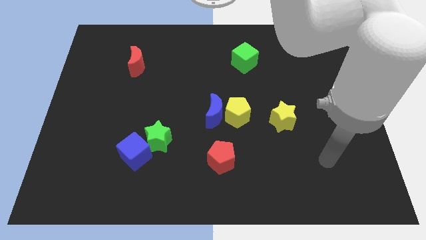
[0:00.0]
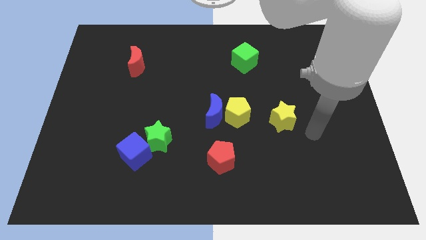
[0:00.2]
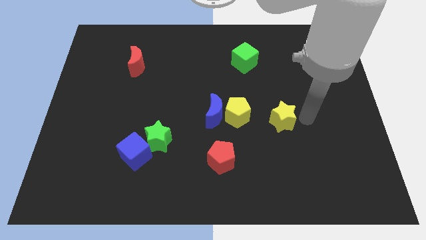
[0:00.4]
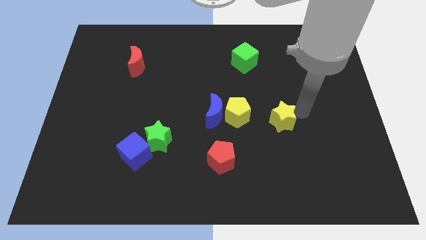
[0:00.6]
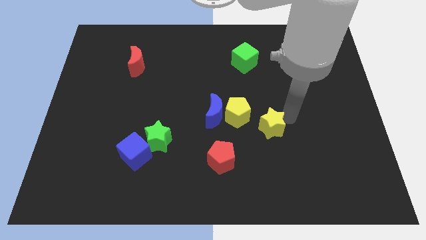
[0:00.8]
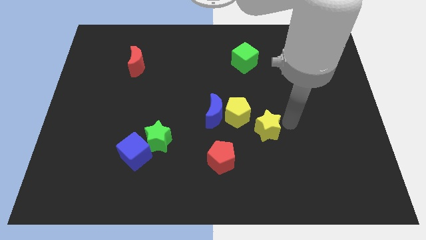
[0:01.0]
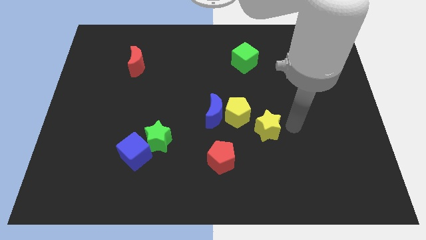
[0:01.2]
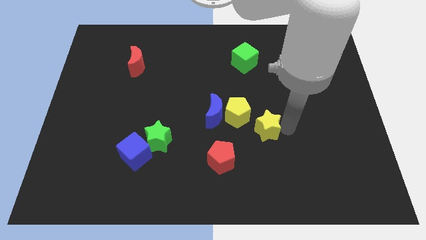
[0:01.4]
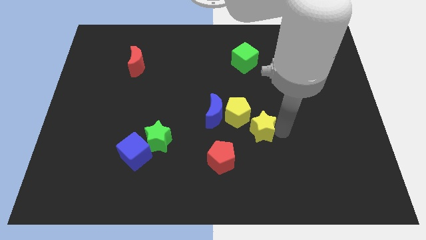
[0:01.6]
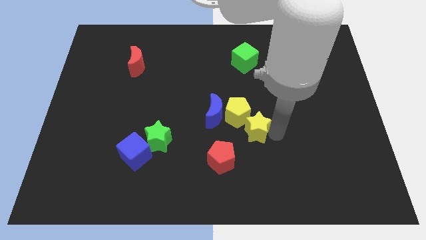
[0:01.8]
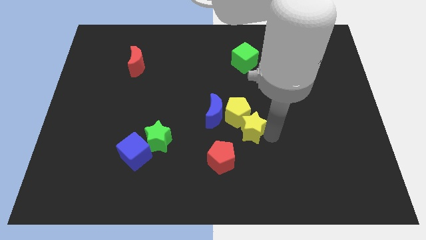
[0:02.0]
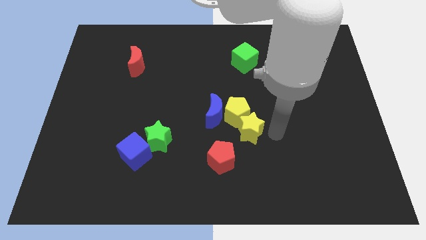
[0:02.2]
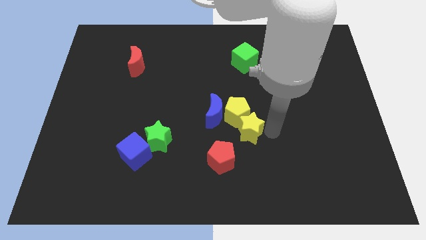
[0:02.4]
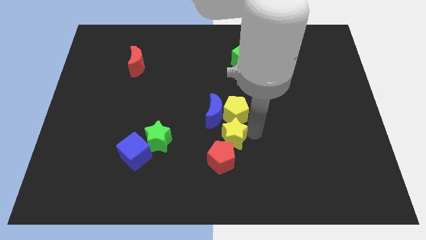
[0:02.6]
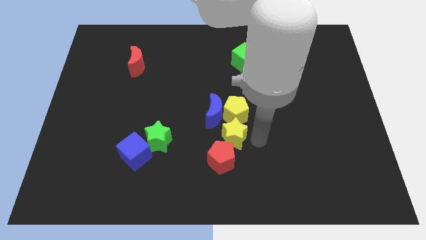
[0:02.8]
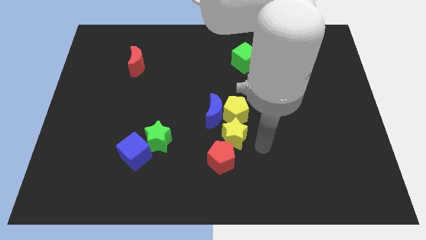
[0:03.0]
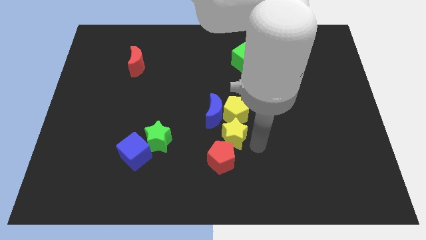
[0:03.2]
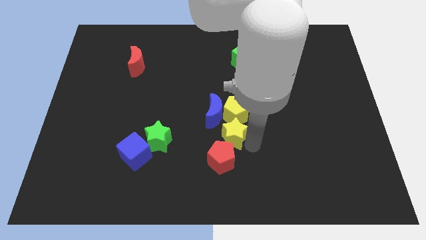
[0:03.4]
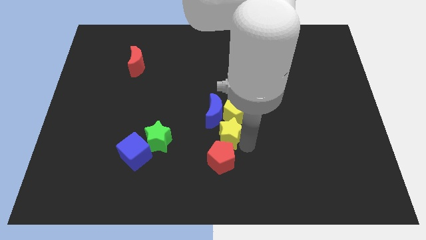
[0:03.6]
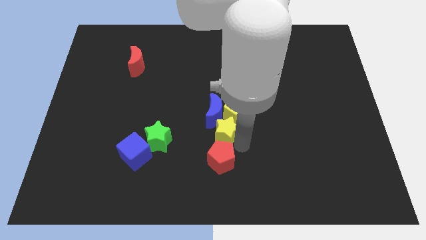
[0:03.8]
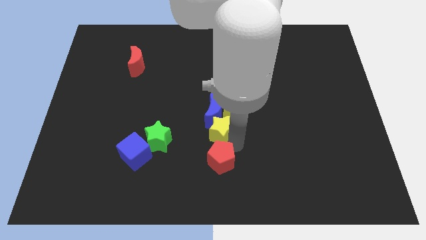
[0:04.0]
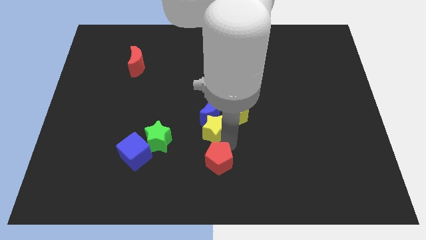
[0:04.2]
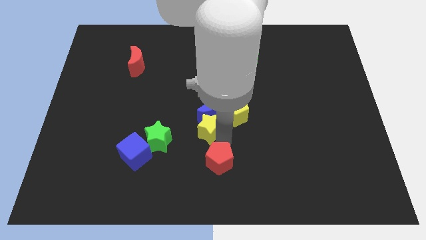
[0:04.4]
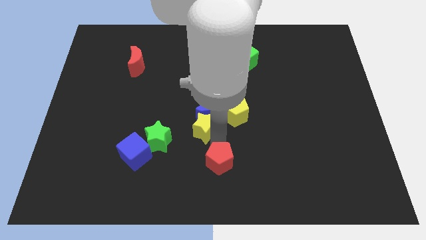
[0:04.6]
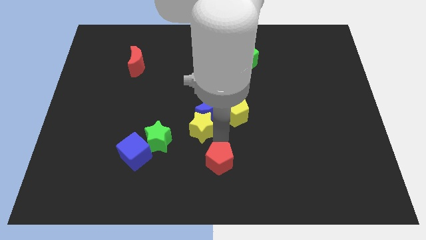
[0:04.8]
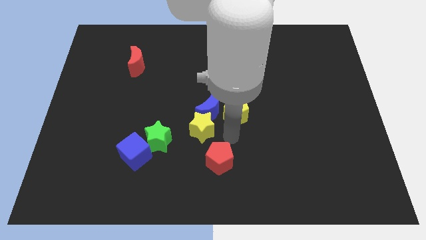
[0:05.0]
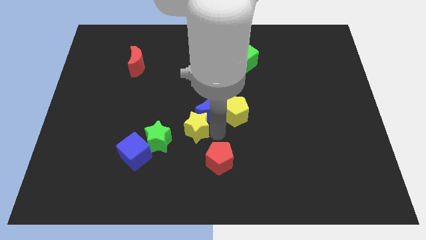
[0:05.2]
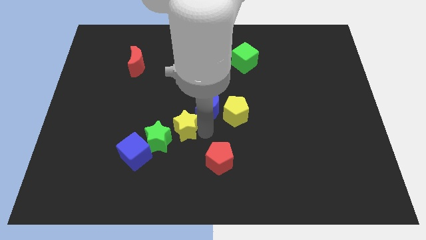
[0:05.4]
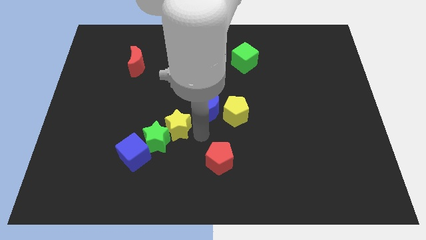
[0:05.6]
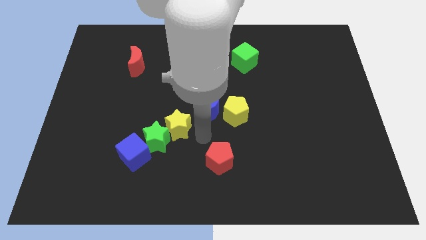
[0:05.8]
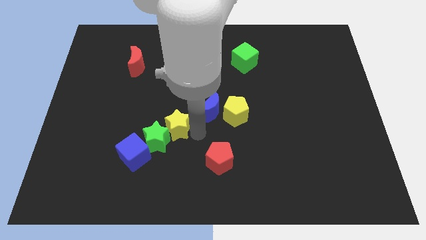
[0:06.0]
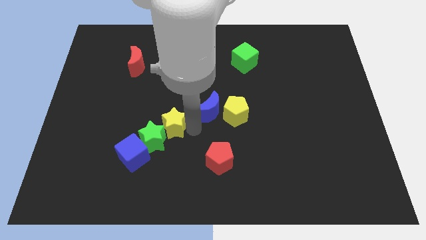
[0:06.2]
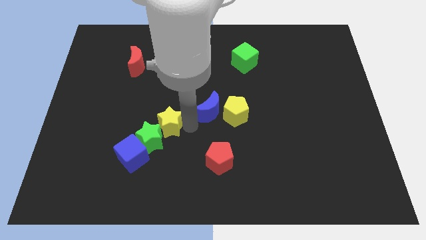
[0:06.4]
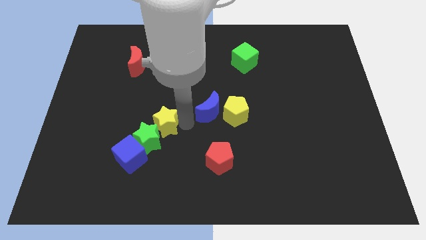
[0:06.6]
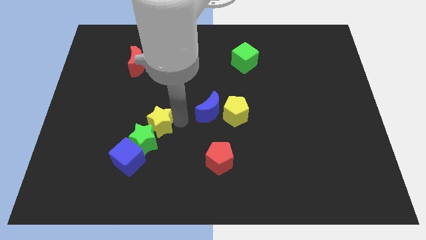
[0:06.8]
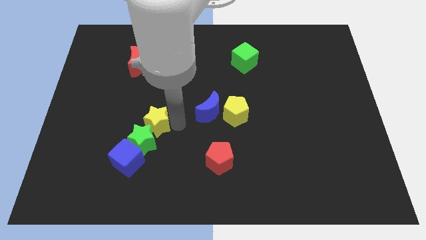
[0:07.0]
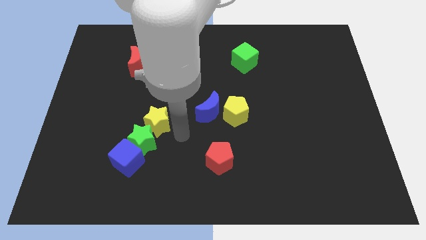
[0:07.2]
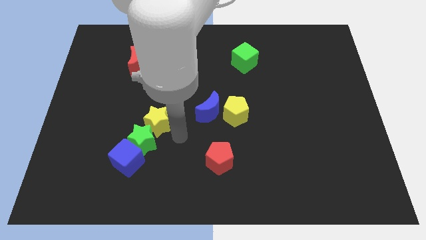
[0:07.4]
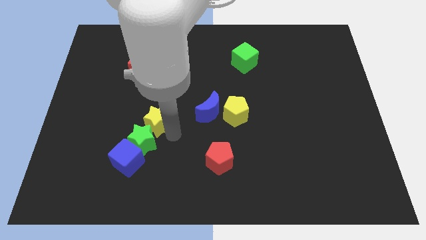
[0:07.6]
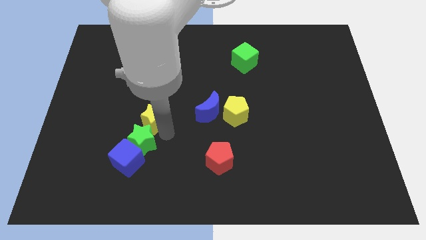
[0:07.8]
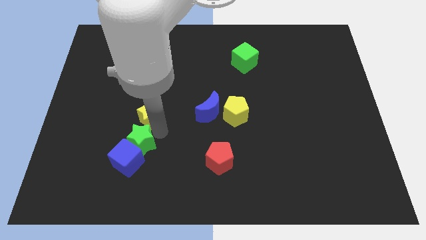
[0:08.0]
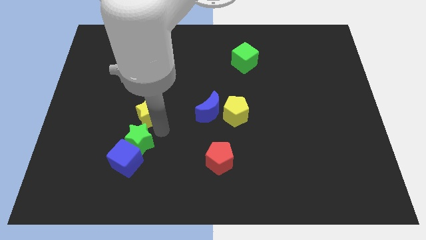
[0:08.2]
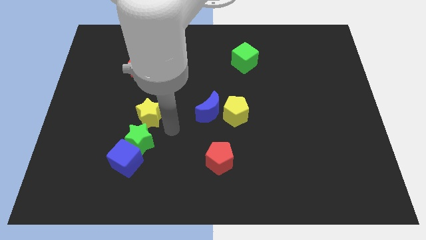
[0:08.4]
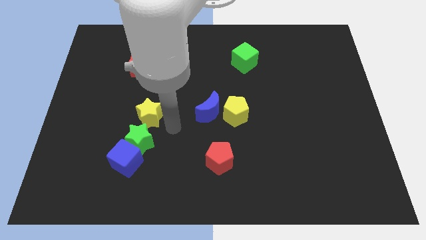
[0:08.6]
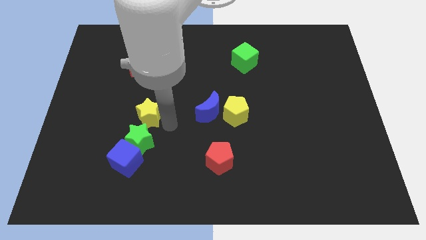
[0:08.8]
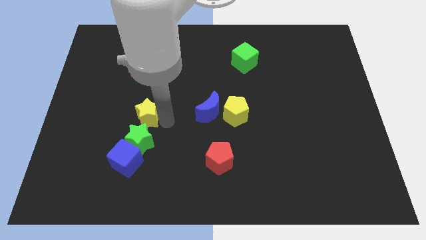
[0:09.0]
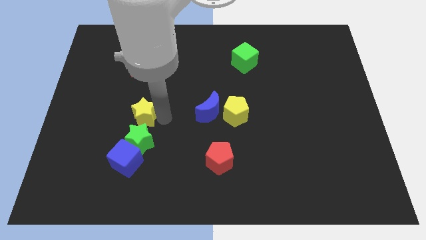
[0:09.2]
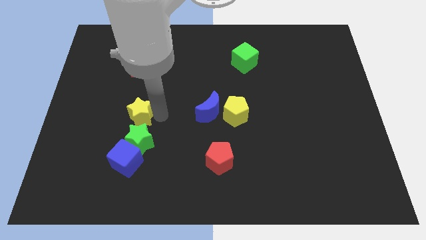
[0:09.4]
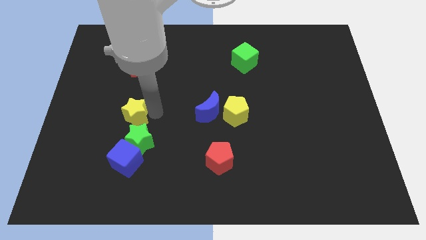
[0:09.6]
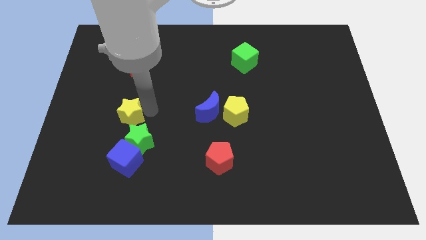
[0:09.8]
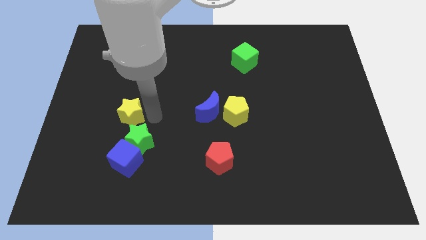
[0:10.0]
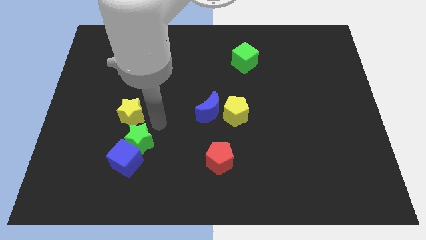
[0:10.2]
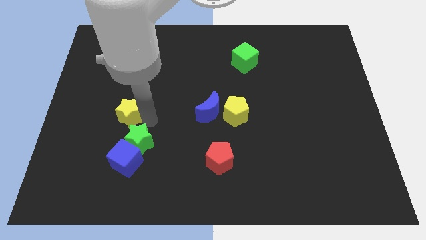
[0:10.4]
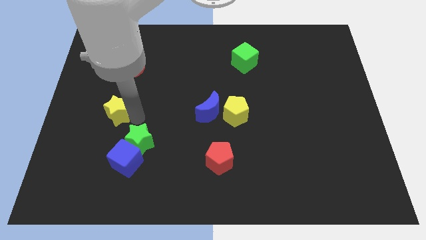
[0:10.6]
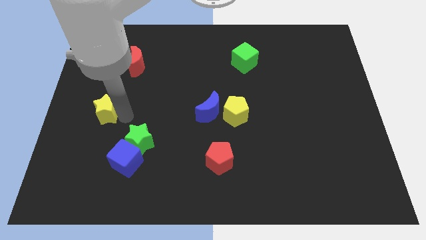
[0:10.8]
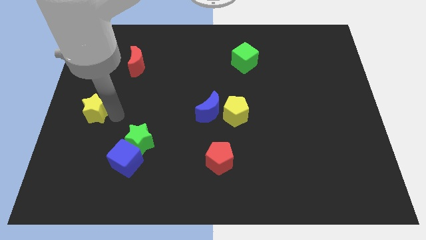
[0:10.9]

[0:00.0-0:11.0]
push the yellow star to the left side of the board
